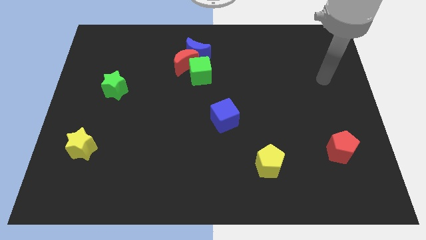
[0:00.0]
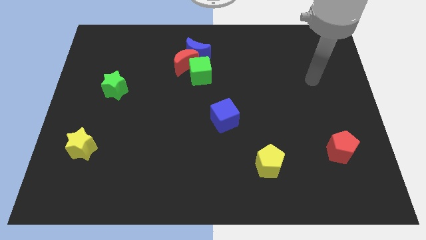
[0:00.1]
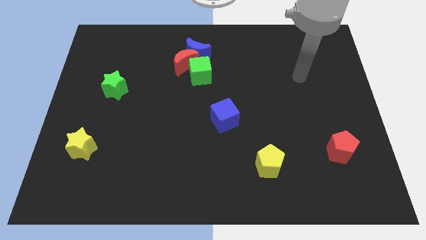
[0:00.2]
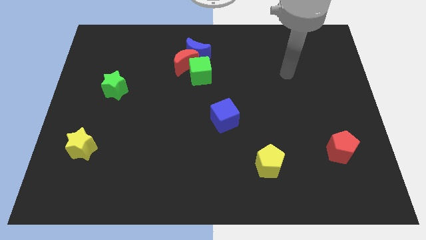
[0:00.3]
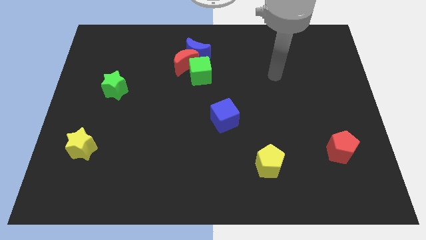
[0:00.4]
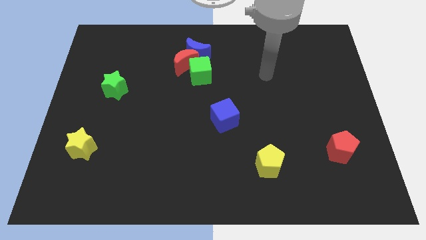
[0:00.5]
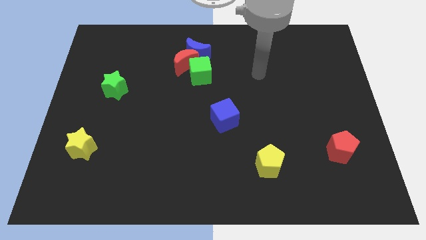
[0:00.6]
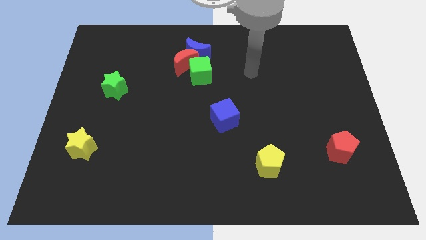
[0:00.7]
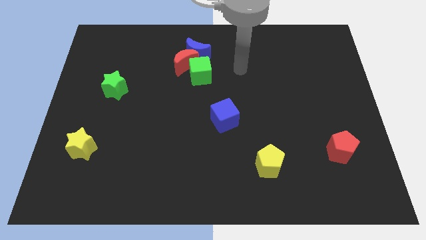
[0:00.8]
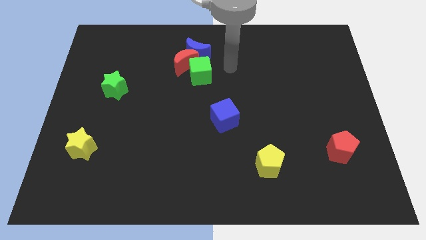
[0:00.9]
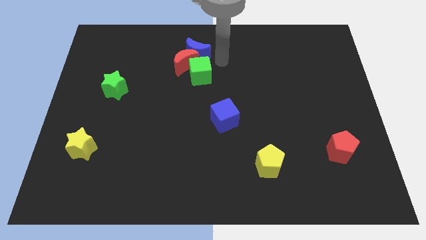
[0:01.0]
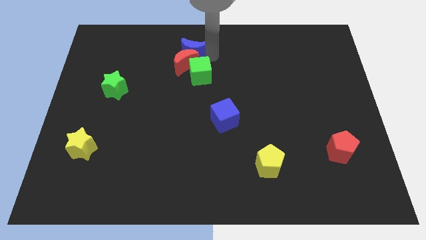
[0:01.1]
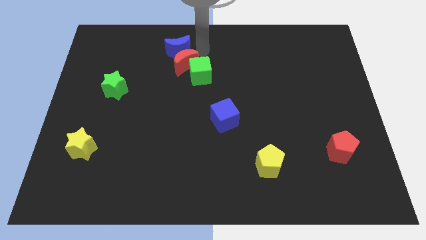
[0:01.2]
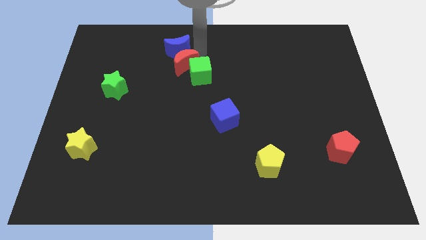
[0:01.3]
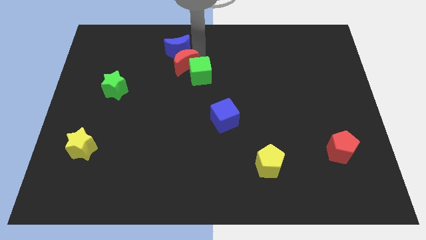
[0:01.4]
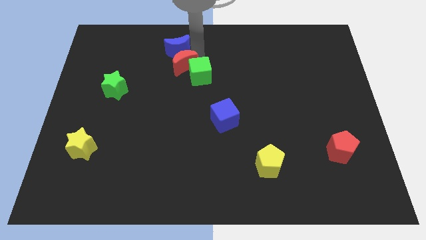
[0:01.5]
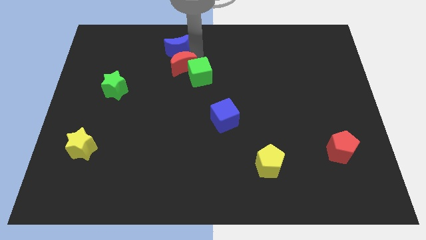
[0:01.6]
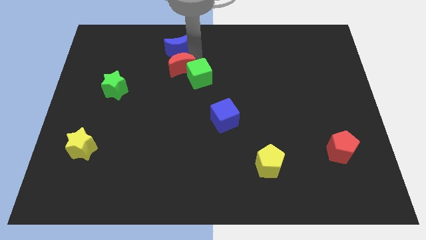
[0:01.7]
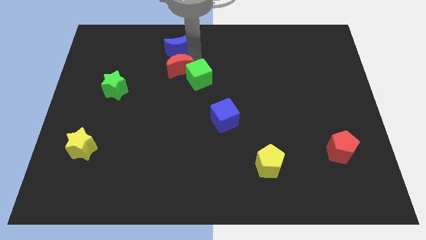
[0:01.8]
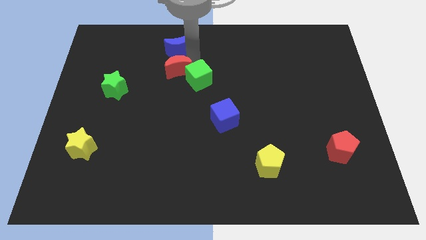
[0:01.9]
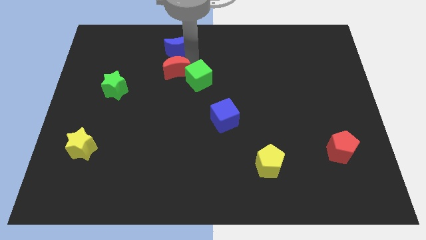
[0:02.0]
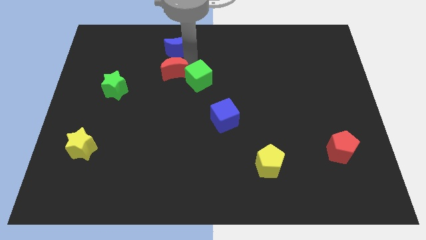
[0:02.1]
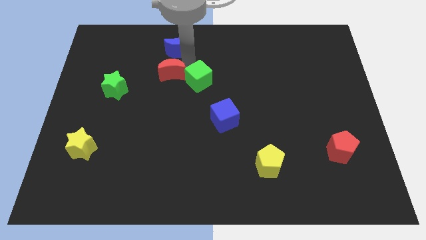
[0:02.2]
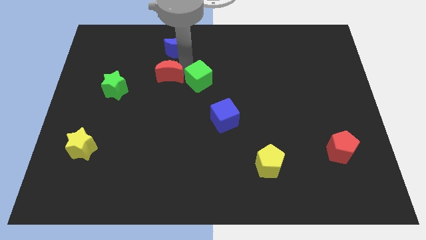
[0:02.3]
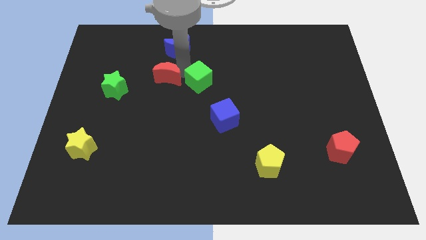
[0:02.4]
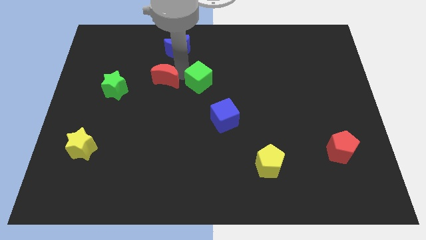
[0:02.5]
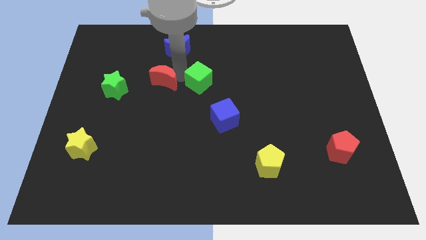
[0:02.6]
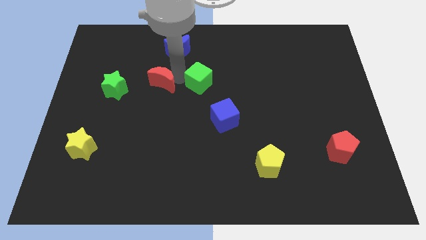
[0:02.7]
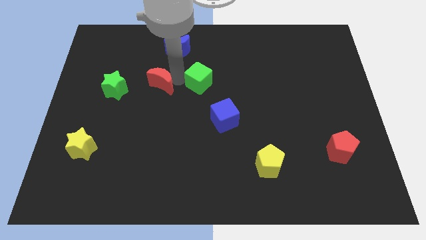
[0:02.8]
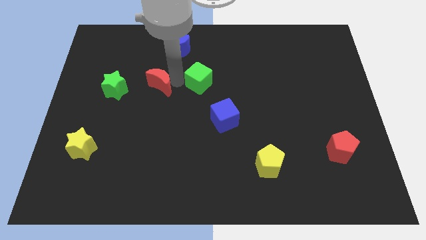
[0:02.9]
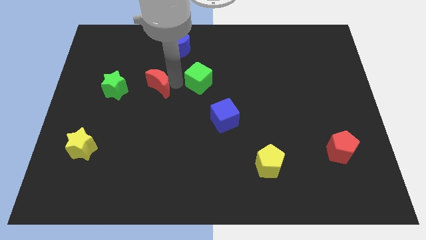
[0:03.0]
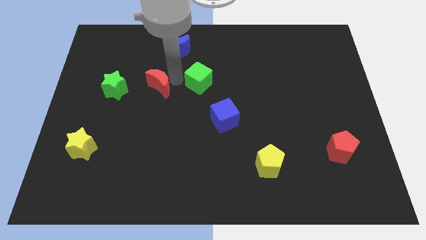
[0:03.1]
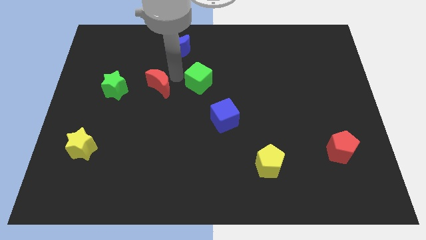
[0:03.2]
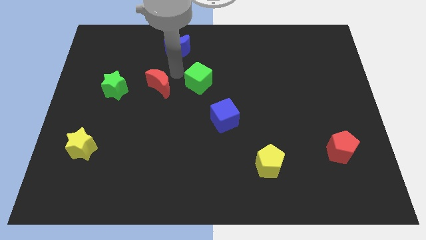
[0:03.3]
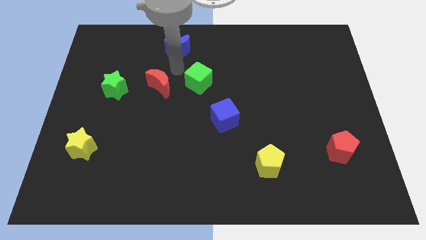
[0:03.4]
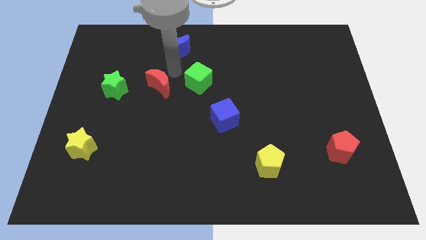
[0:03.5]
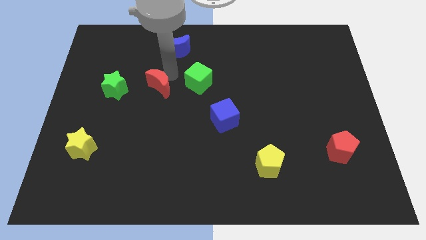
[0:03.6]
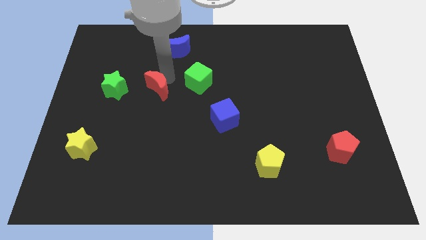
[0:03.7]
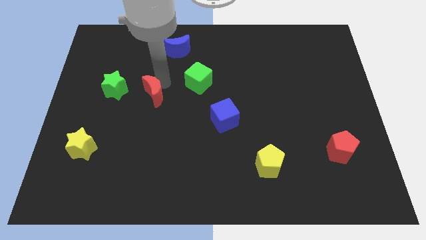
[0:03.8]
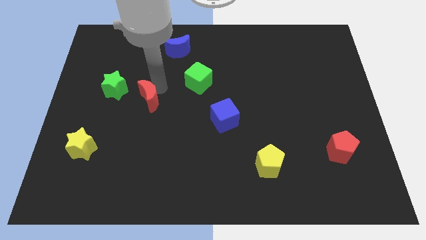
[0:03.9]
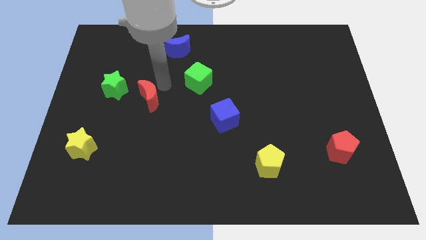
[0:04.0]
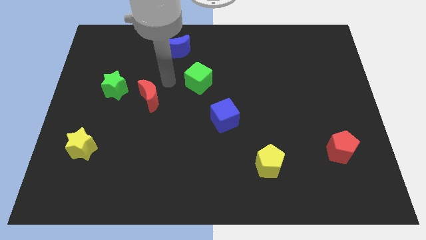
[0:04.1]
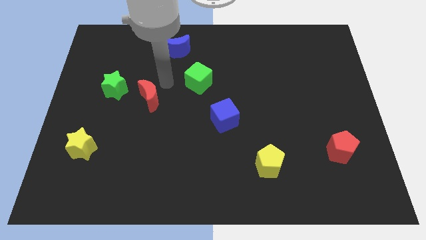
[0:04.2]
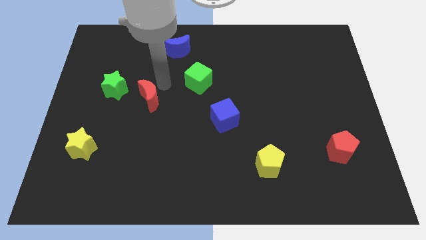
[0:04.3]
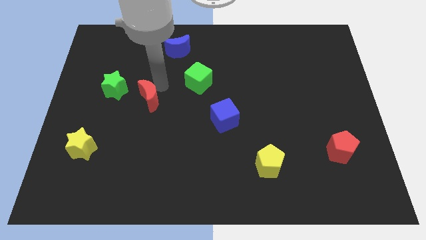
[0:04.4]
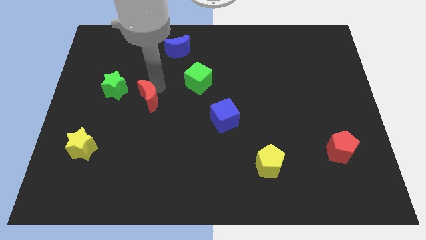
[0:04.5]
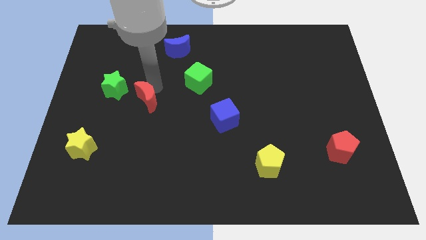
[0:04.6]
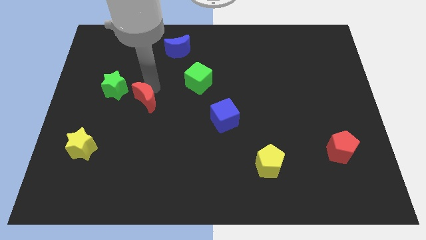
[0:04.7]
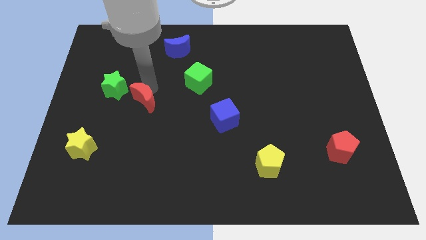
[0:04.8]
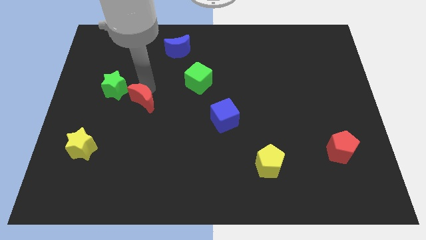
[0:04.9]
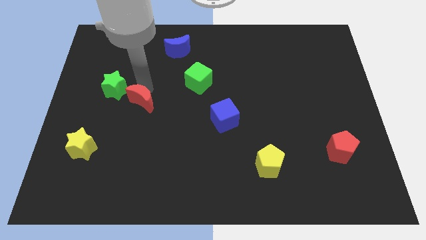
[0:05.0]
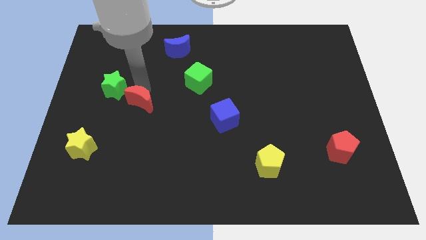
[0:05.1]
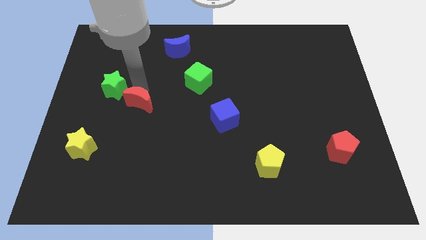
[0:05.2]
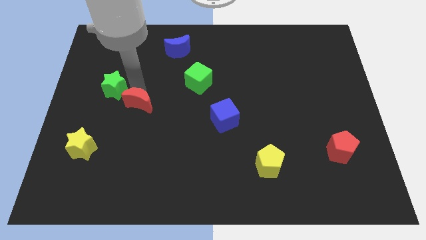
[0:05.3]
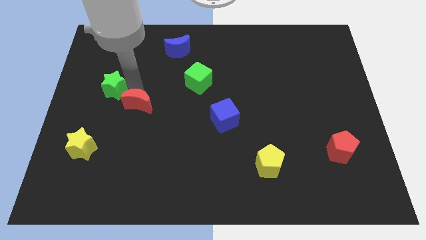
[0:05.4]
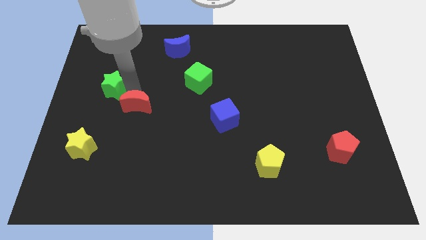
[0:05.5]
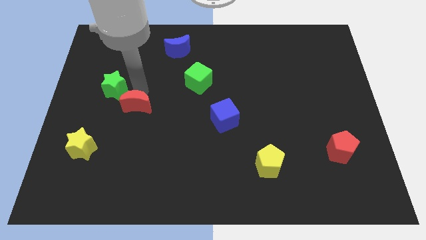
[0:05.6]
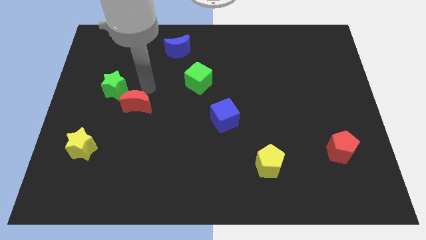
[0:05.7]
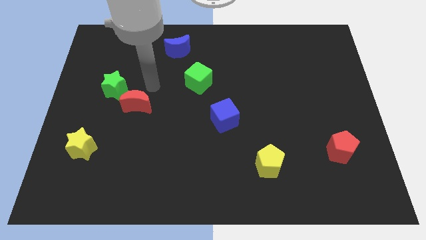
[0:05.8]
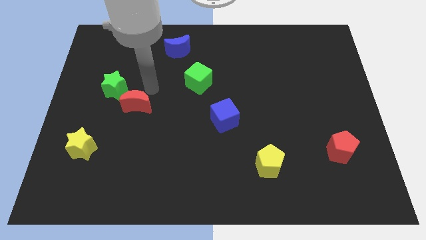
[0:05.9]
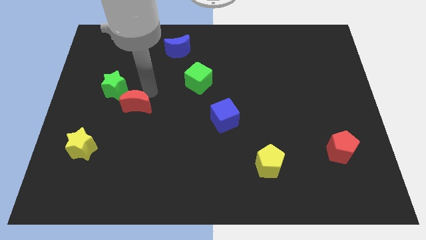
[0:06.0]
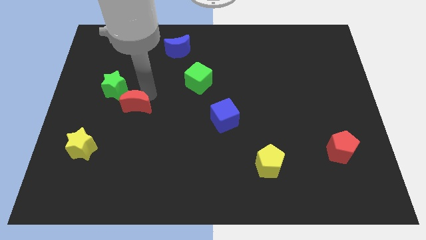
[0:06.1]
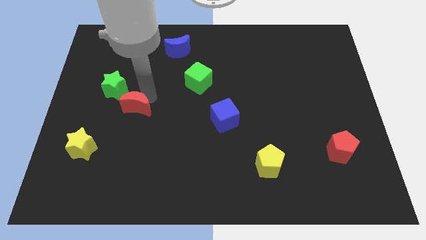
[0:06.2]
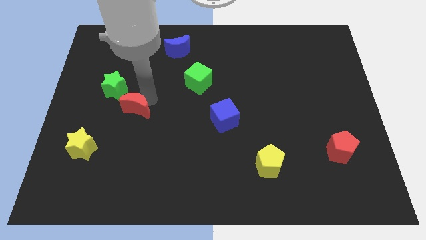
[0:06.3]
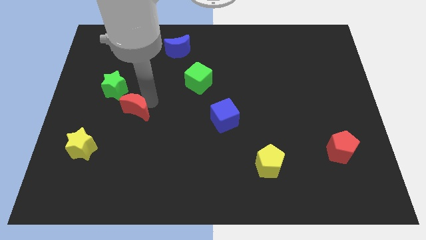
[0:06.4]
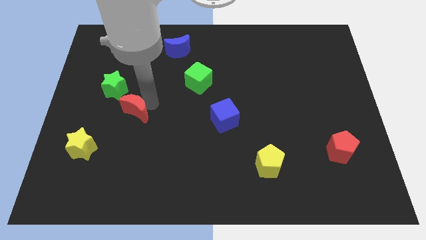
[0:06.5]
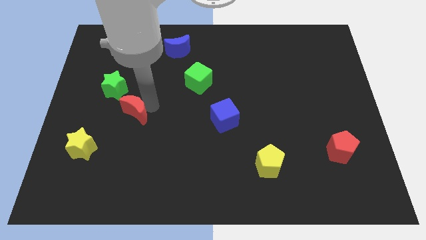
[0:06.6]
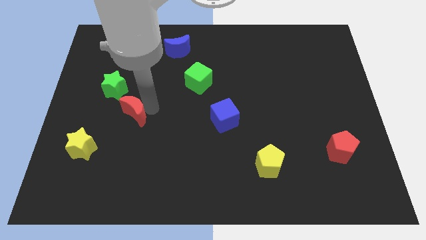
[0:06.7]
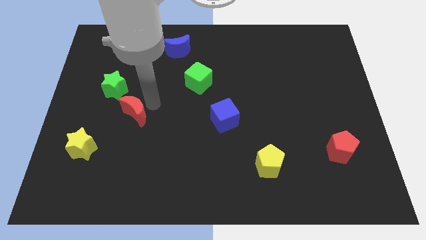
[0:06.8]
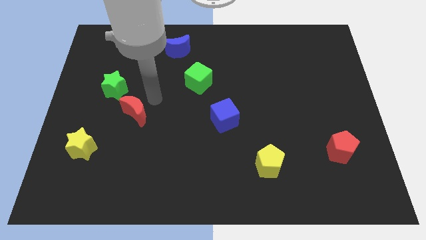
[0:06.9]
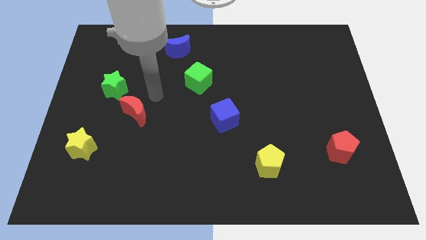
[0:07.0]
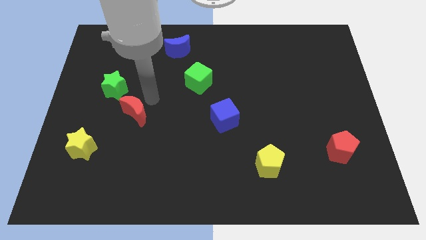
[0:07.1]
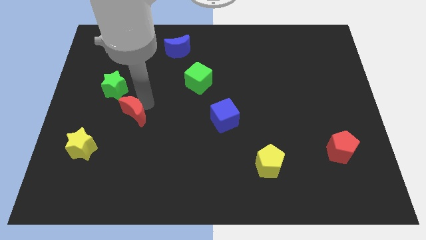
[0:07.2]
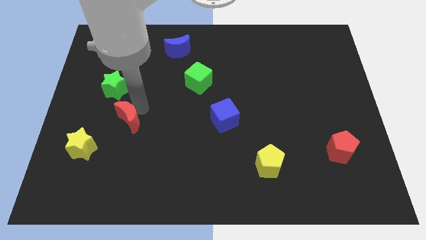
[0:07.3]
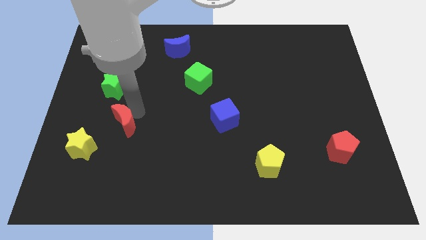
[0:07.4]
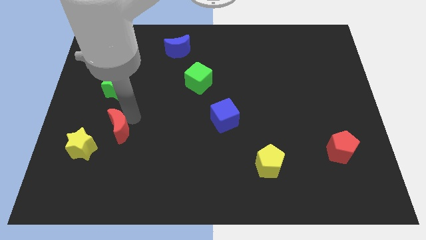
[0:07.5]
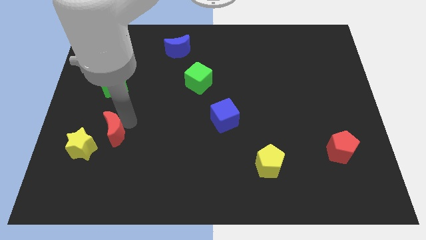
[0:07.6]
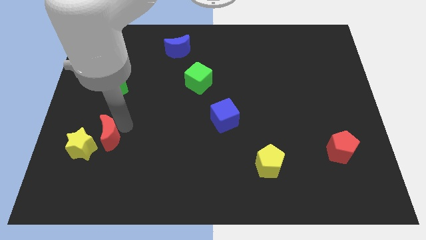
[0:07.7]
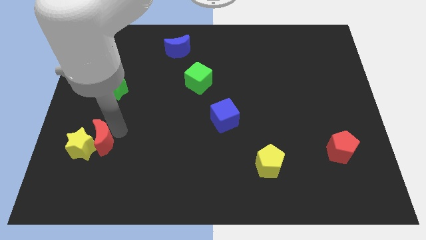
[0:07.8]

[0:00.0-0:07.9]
slide the red moon towards the yellow star
